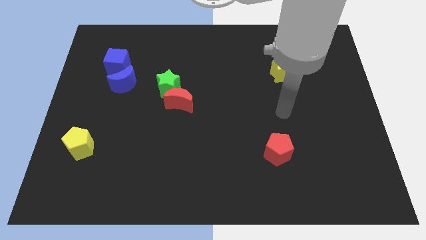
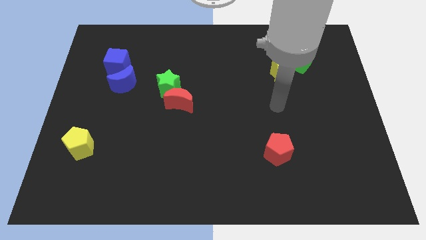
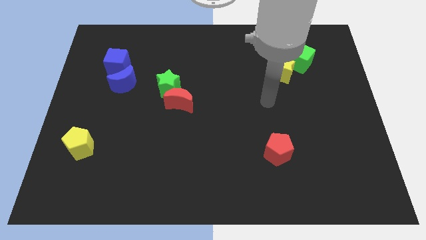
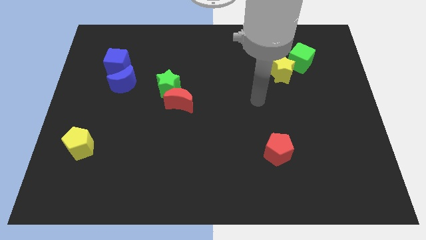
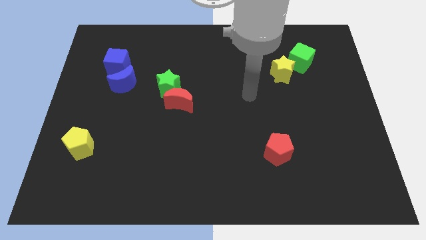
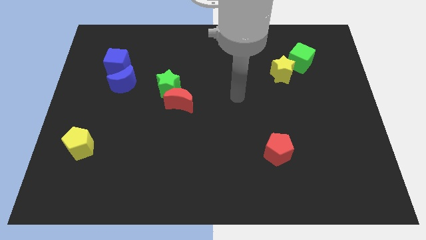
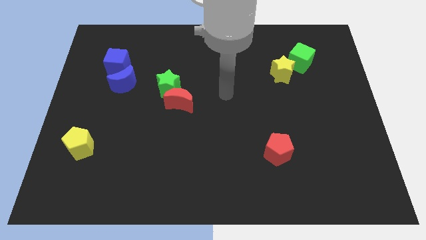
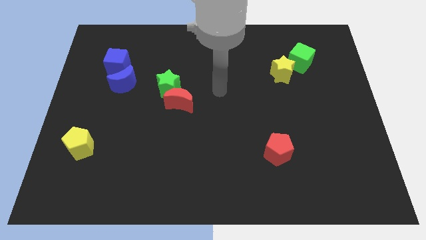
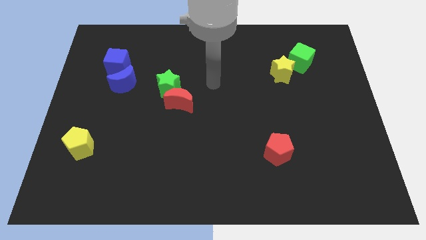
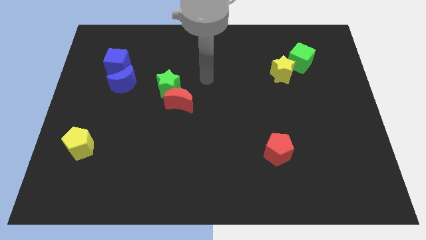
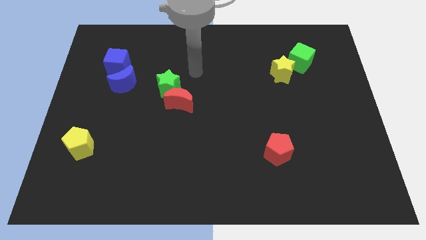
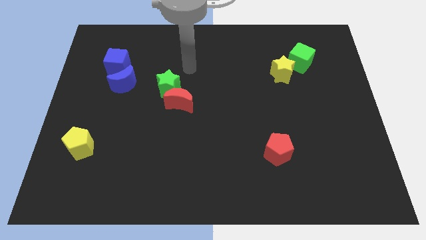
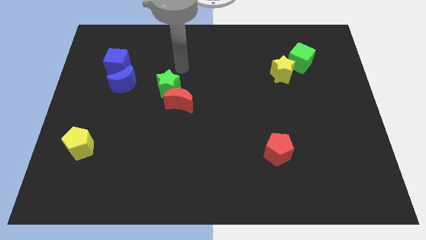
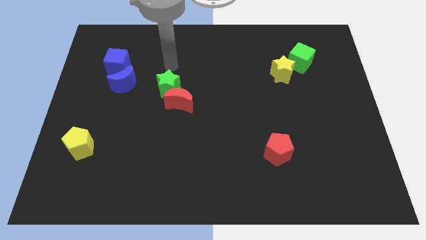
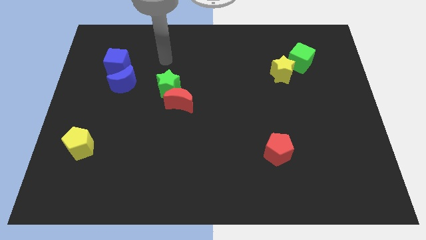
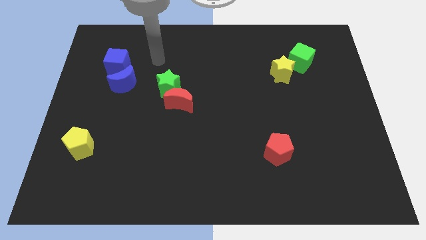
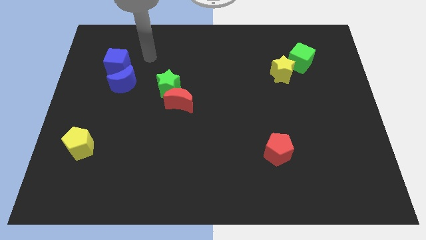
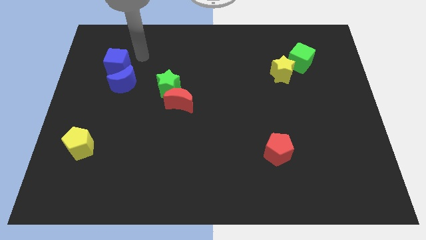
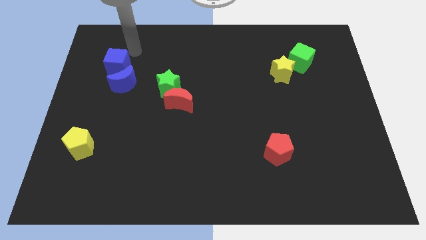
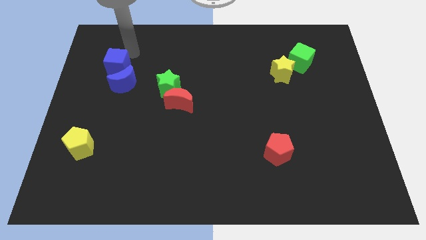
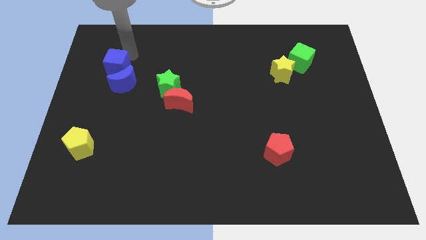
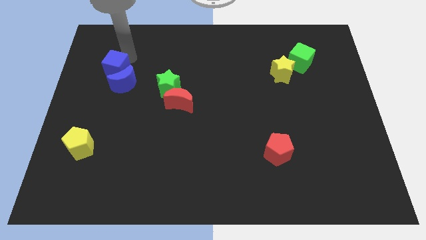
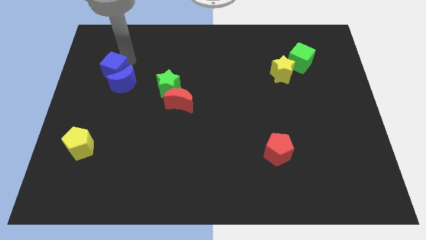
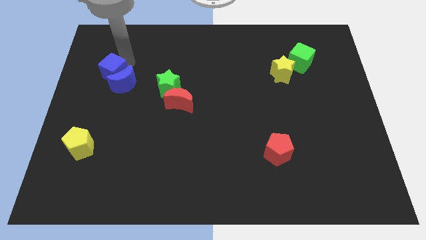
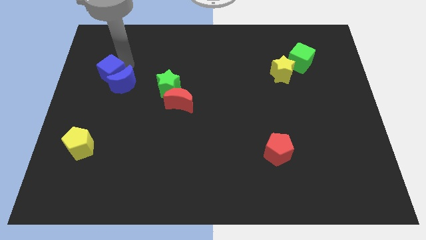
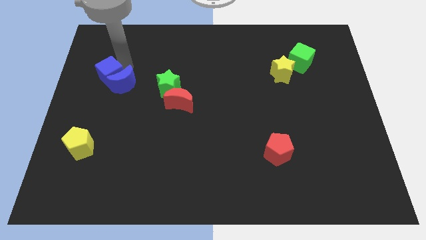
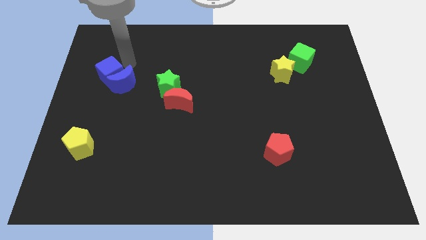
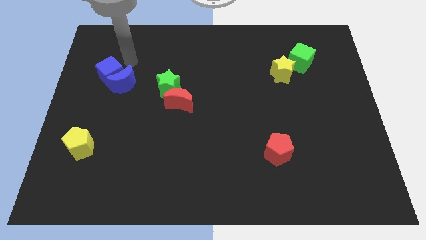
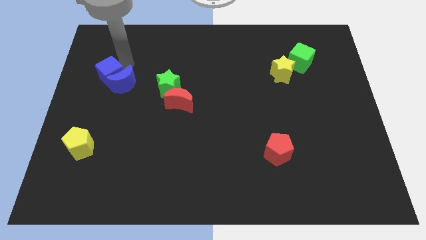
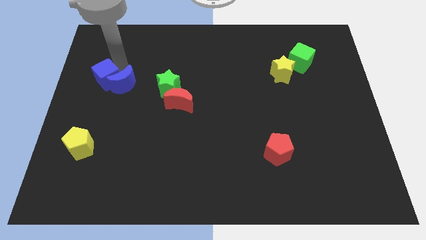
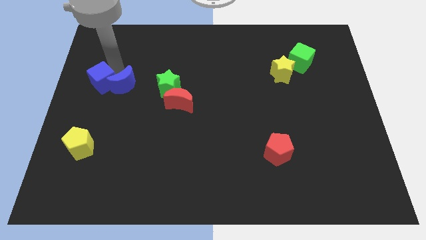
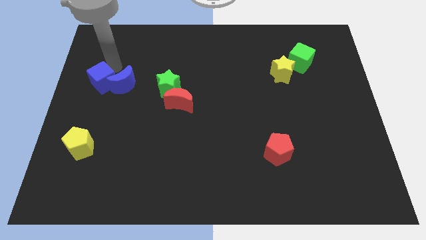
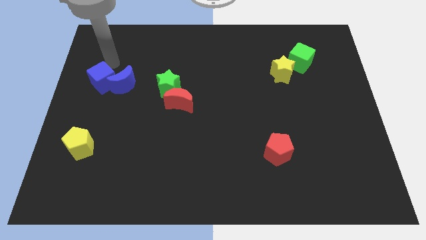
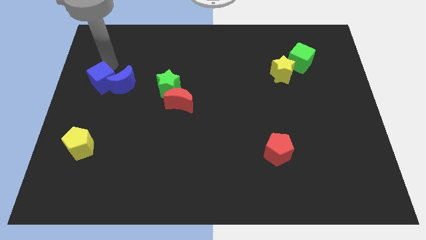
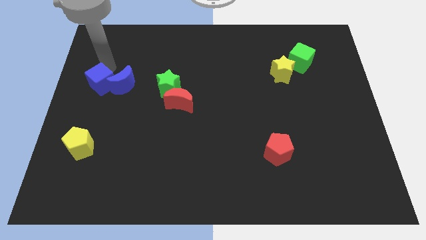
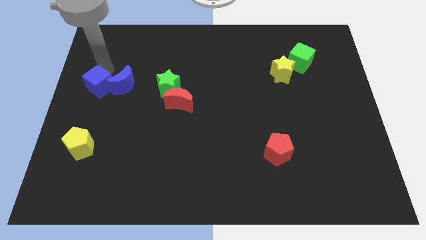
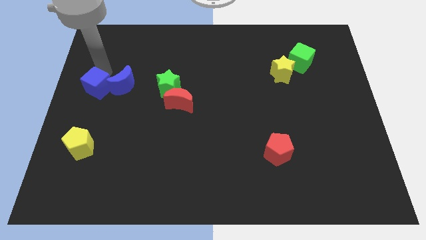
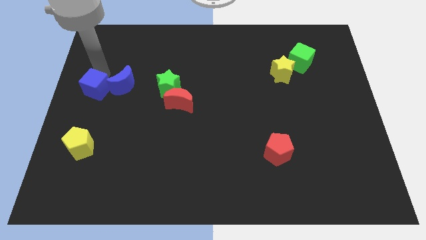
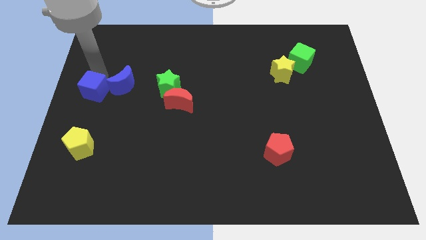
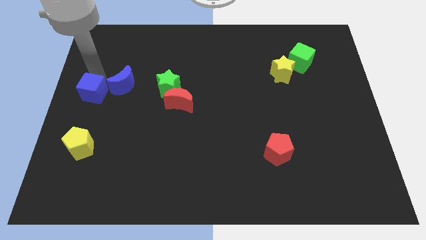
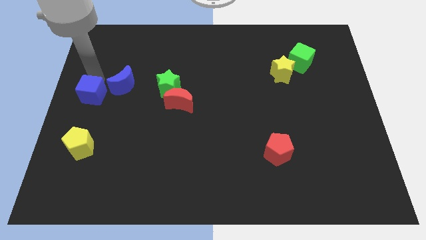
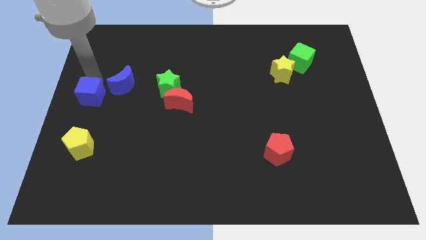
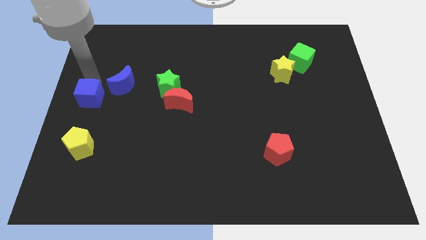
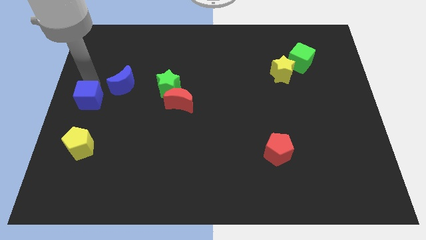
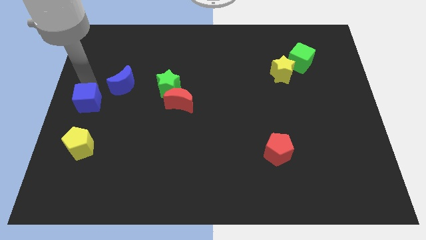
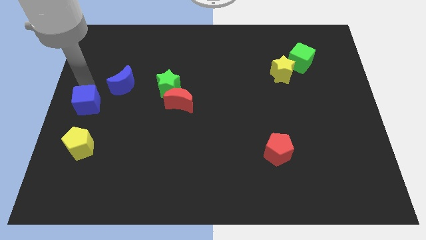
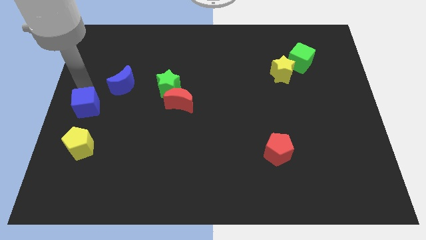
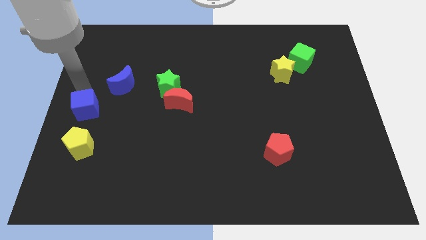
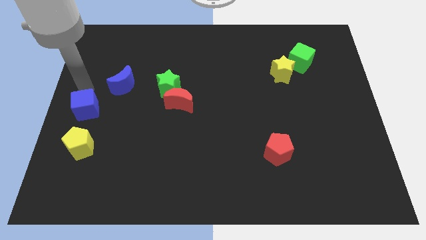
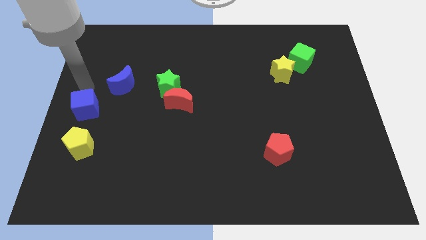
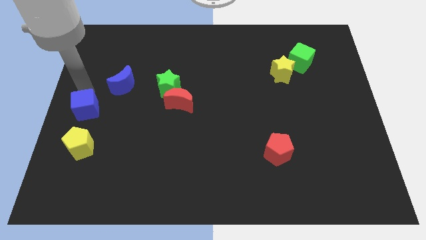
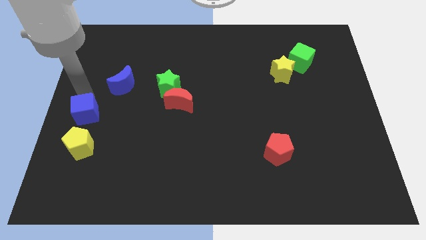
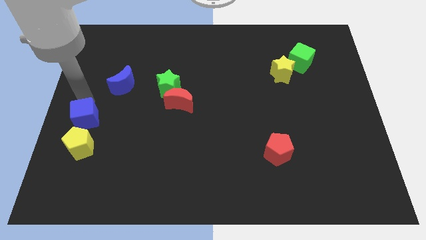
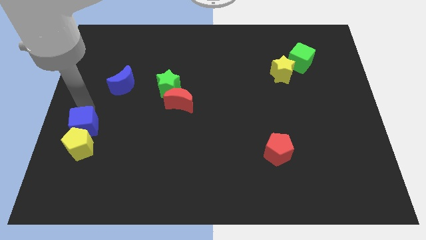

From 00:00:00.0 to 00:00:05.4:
slide the blue cube next to the yellow pentagon

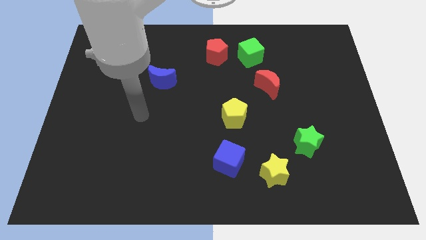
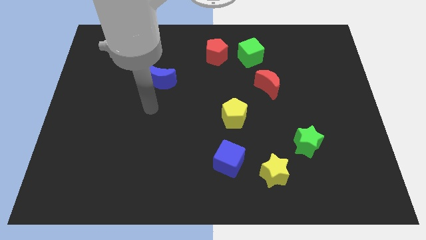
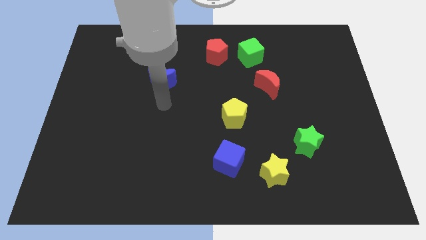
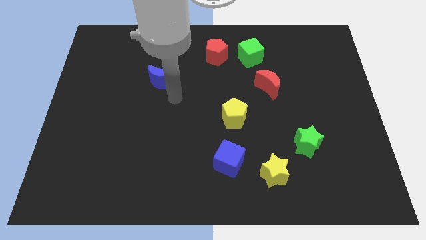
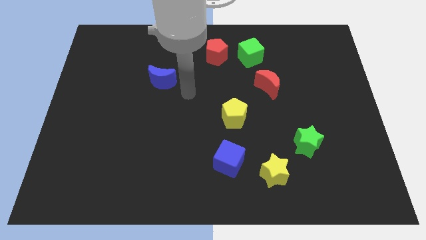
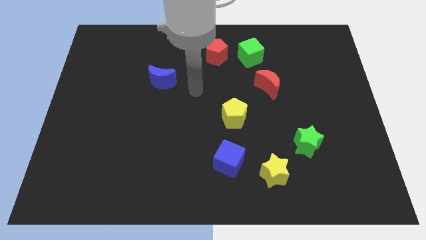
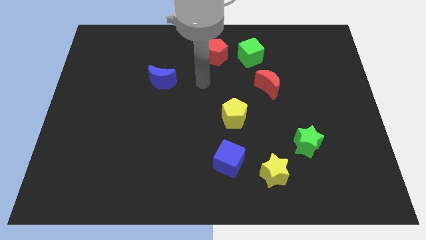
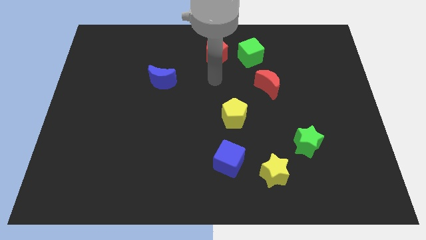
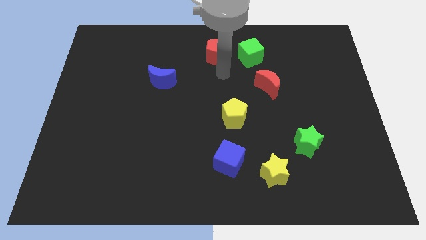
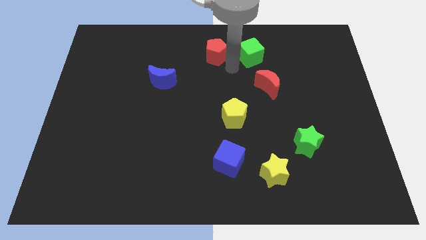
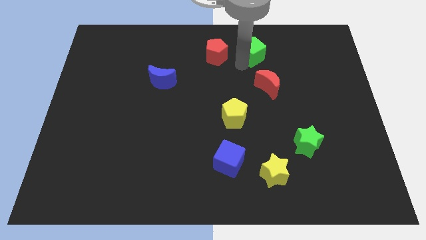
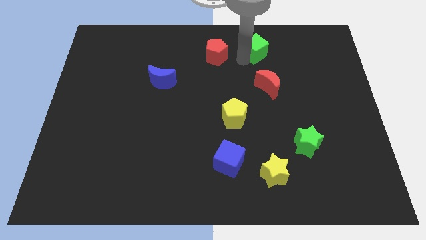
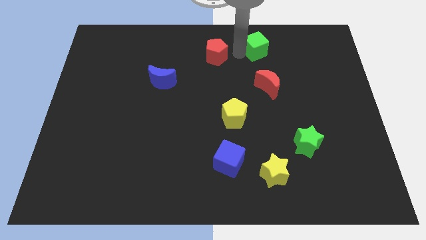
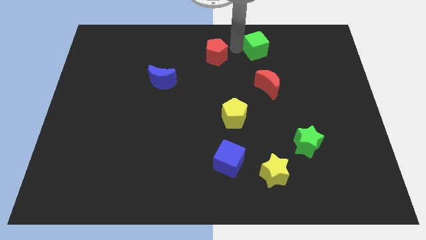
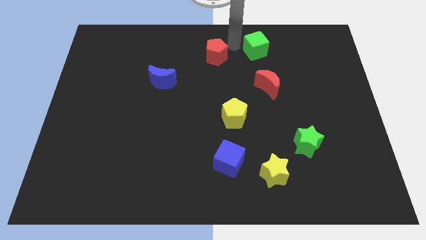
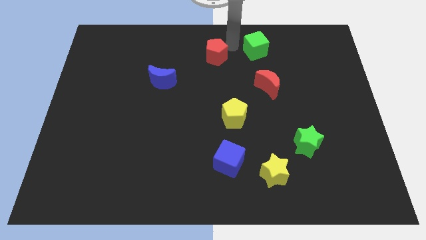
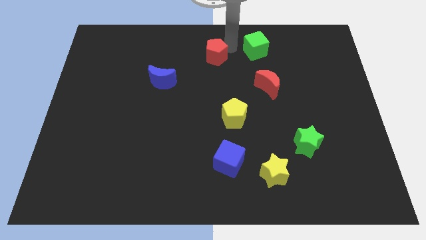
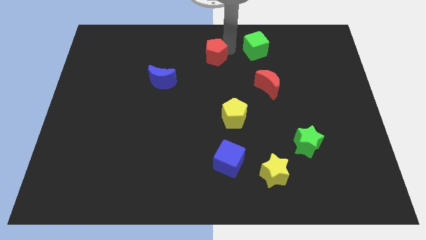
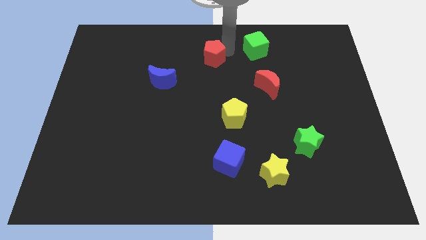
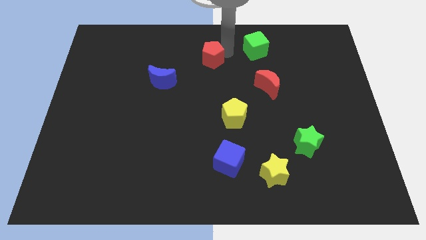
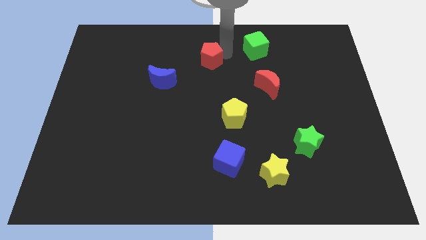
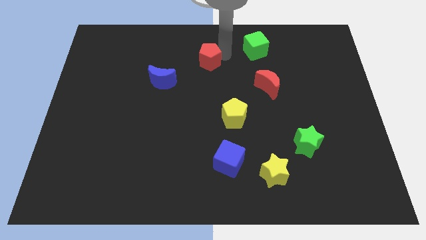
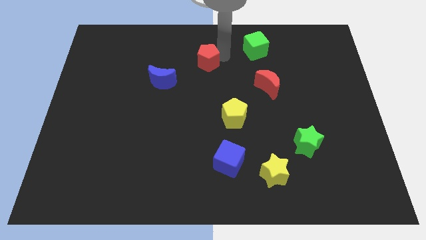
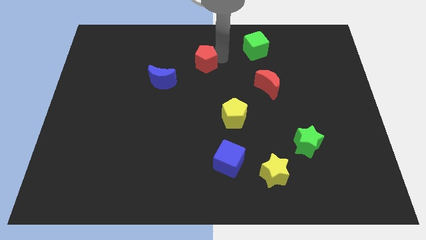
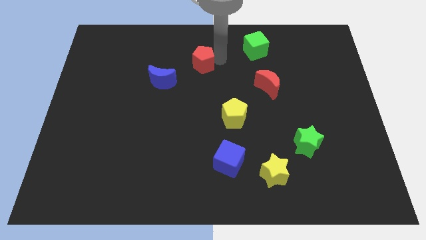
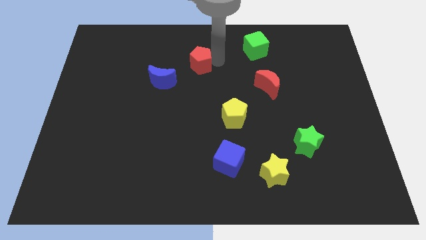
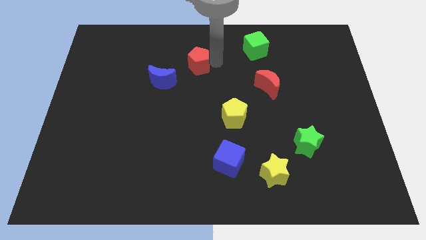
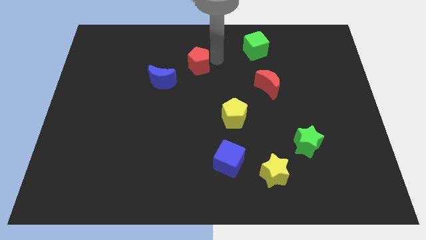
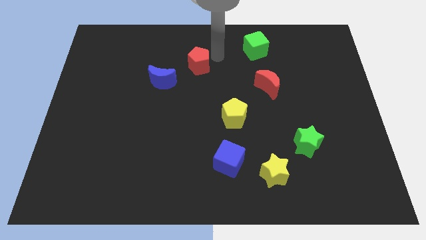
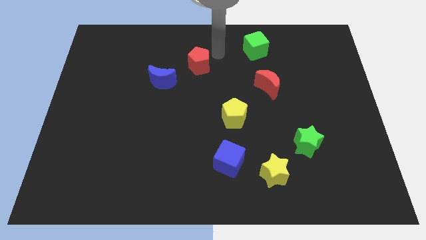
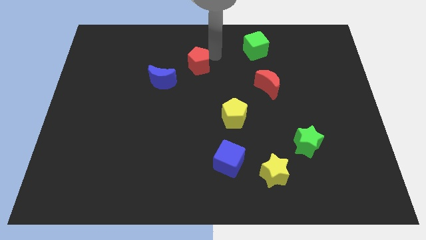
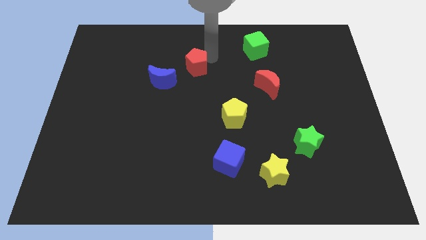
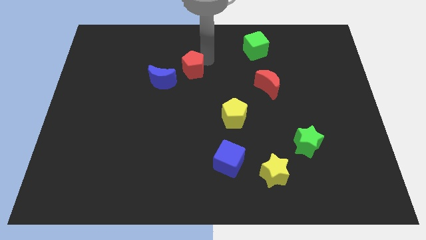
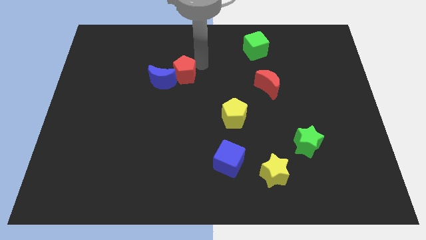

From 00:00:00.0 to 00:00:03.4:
put the red pentagon next to the blue moon
